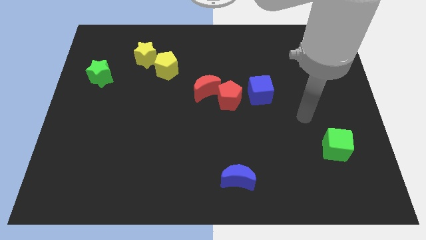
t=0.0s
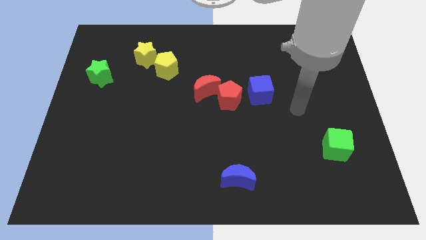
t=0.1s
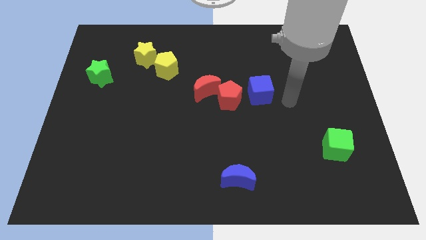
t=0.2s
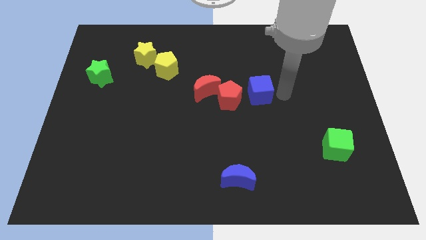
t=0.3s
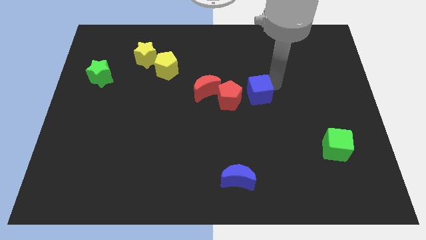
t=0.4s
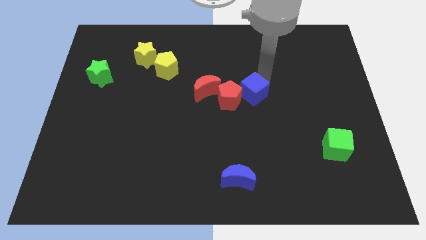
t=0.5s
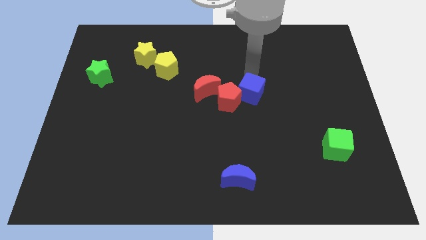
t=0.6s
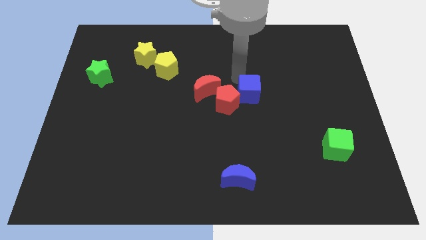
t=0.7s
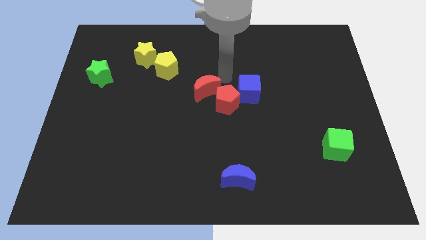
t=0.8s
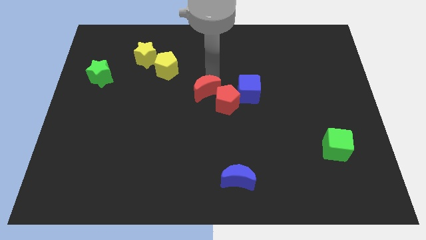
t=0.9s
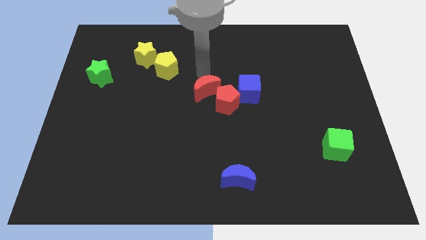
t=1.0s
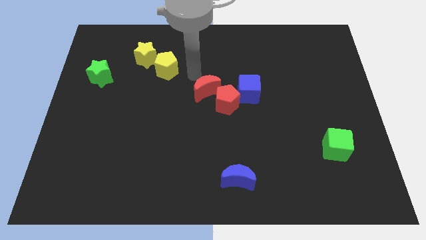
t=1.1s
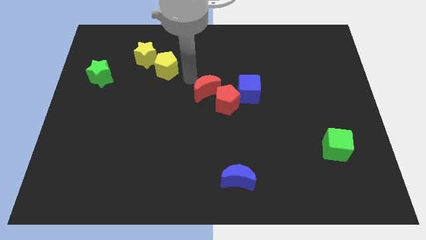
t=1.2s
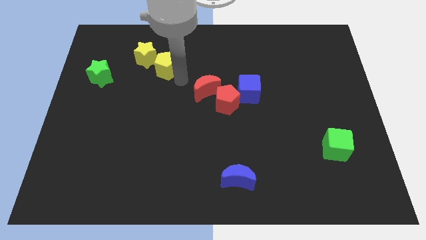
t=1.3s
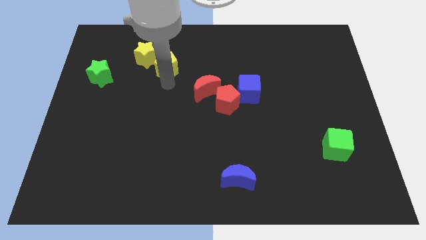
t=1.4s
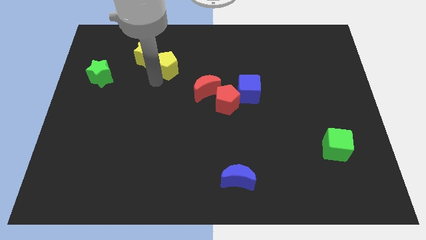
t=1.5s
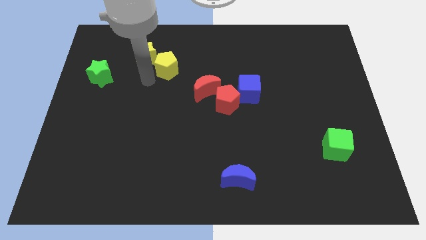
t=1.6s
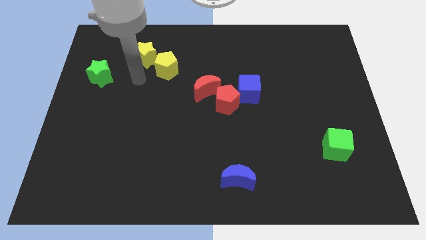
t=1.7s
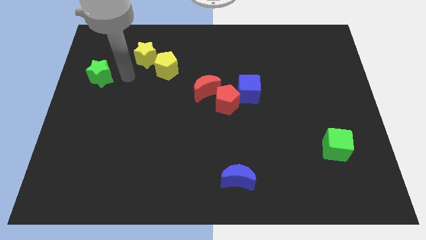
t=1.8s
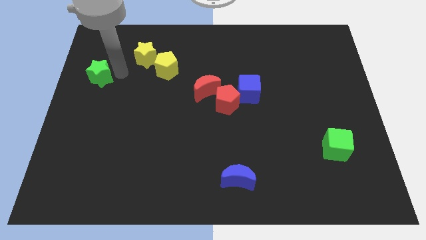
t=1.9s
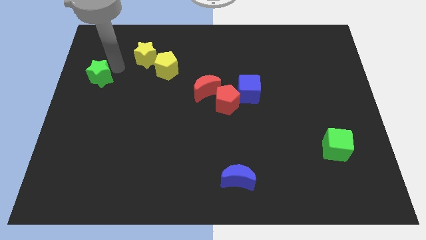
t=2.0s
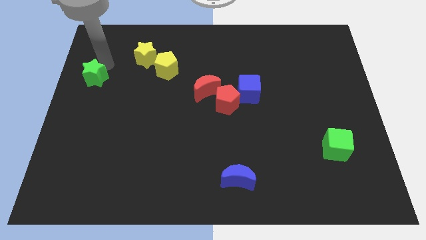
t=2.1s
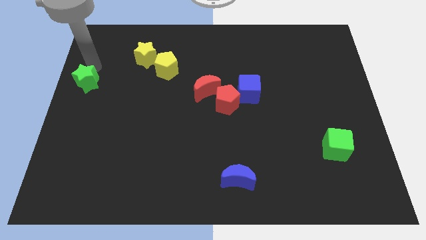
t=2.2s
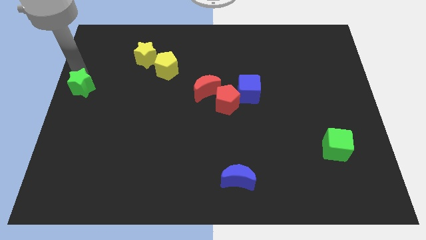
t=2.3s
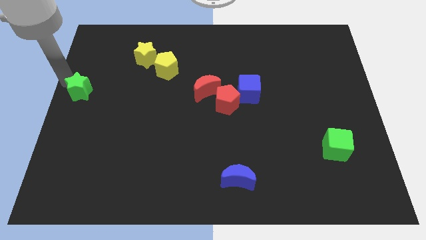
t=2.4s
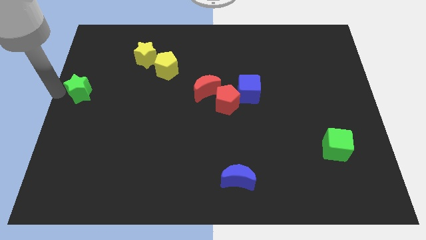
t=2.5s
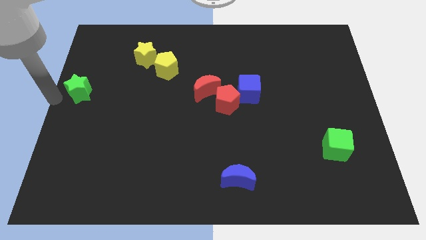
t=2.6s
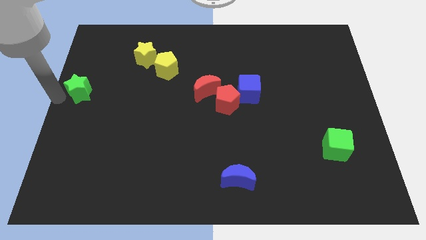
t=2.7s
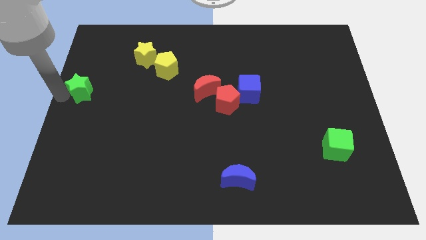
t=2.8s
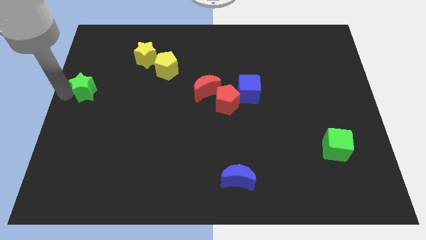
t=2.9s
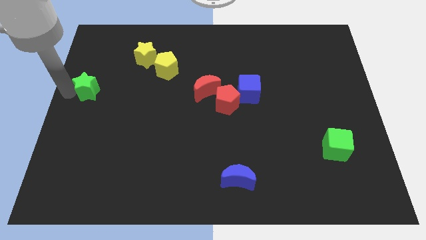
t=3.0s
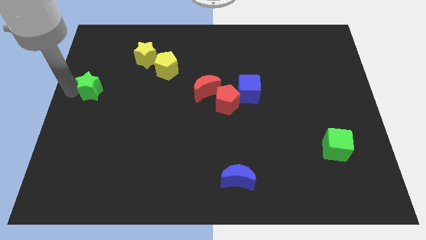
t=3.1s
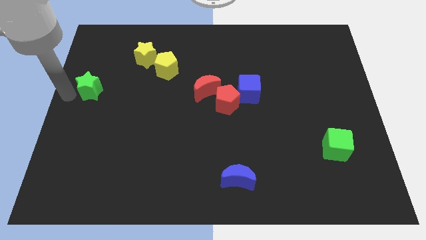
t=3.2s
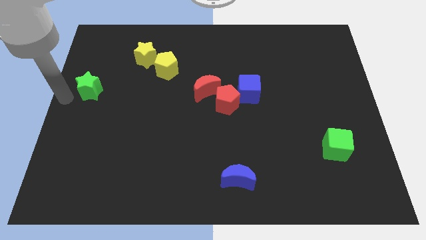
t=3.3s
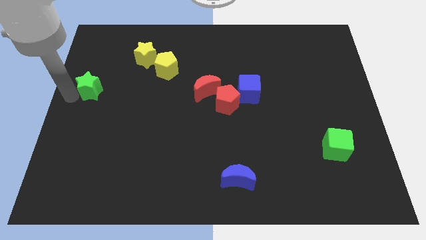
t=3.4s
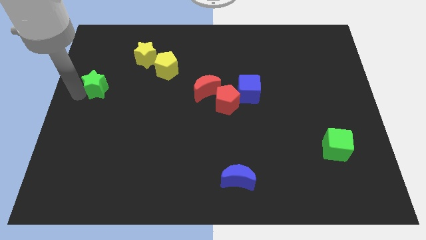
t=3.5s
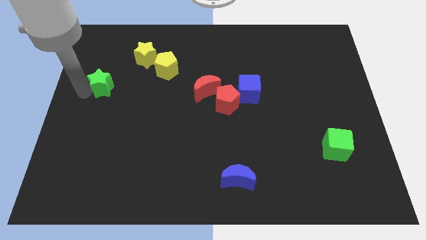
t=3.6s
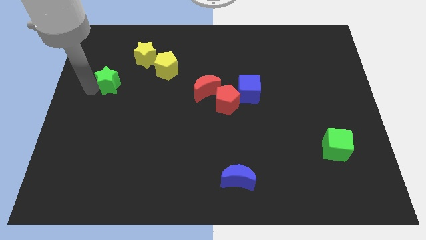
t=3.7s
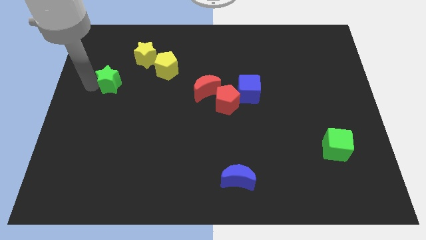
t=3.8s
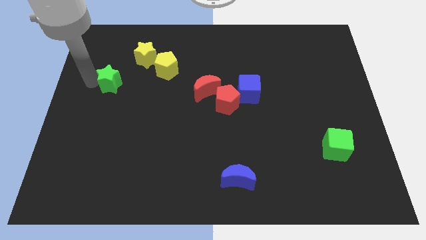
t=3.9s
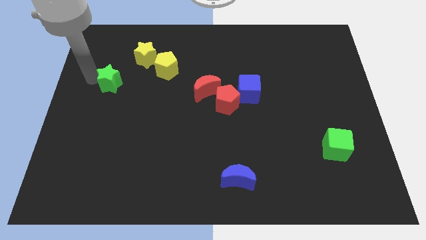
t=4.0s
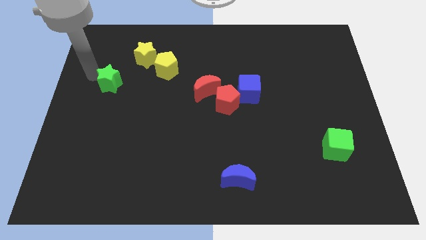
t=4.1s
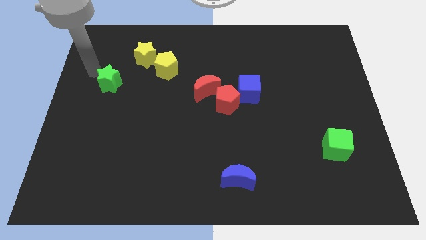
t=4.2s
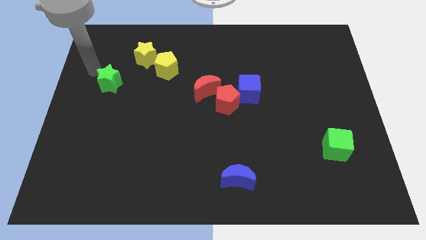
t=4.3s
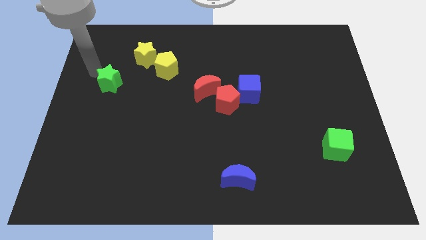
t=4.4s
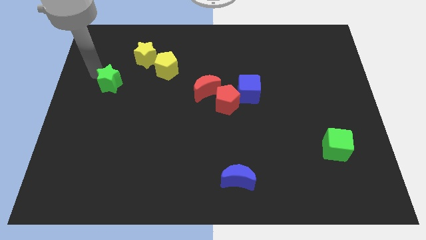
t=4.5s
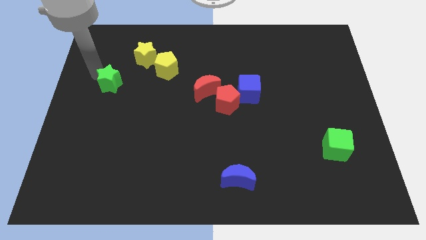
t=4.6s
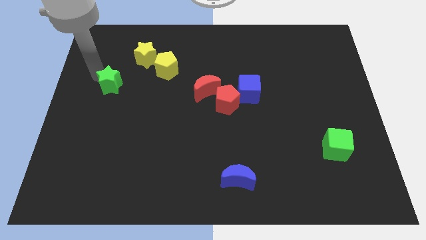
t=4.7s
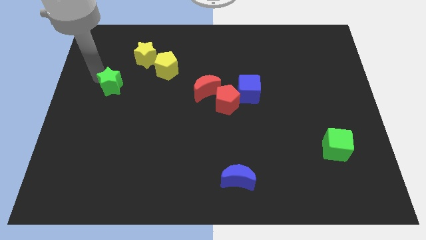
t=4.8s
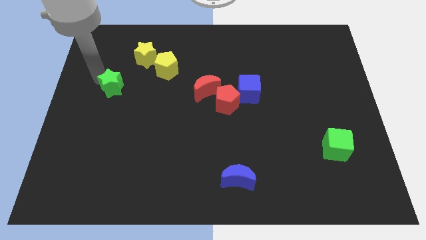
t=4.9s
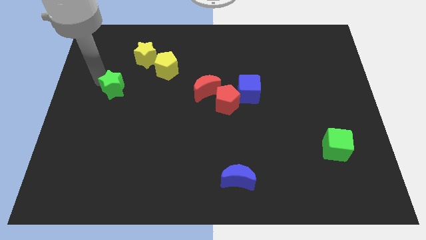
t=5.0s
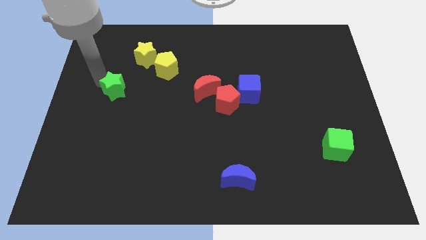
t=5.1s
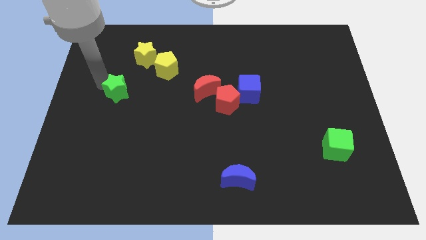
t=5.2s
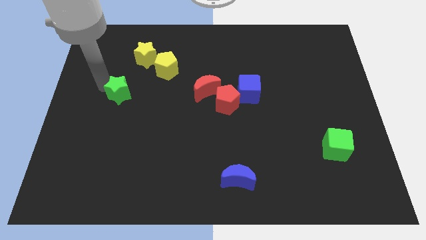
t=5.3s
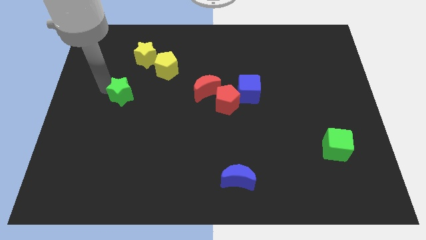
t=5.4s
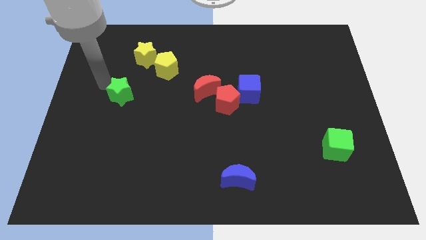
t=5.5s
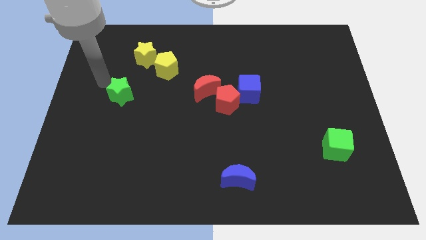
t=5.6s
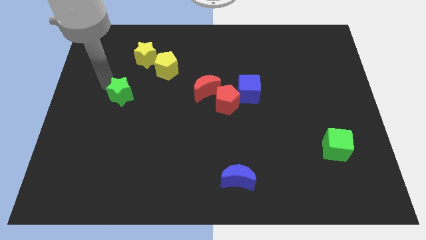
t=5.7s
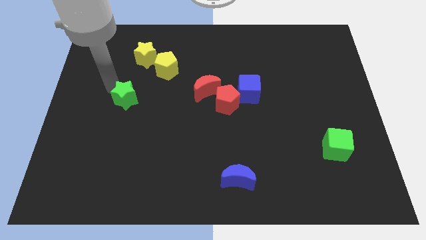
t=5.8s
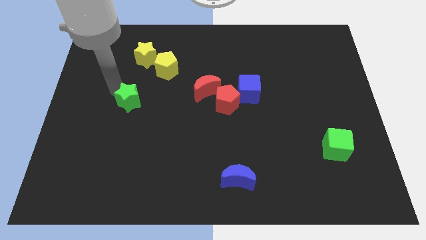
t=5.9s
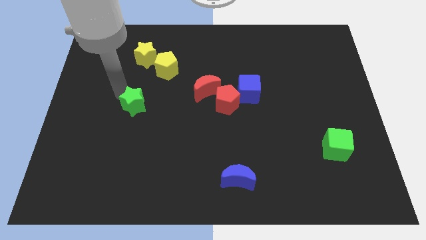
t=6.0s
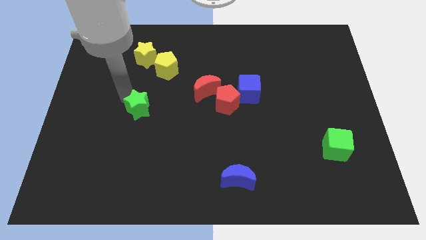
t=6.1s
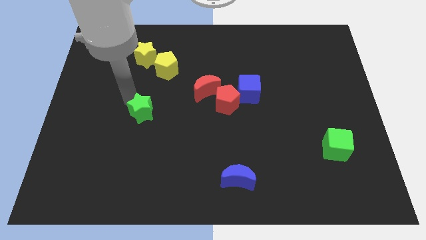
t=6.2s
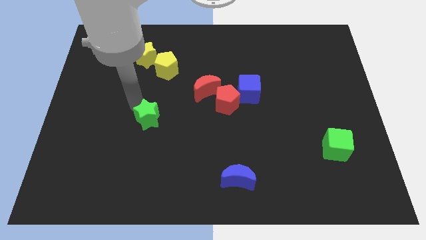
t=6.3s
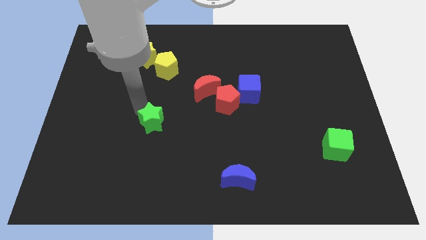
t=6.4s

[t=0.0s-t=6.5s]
move the green star down and right diagonally

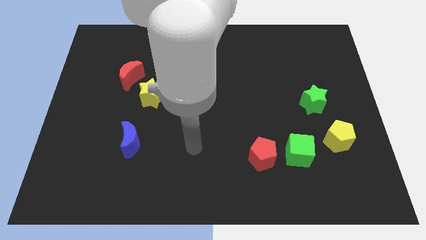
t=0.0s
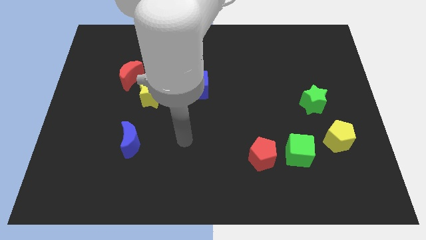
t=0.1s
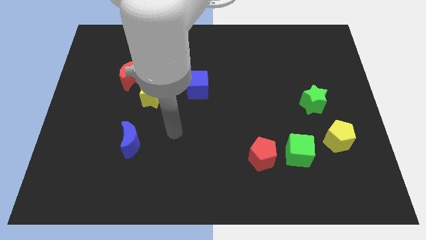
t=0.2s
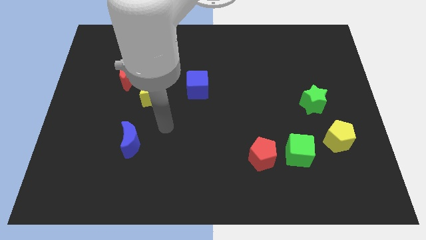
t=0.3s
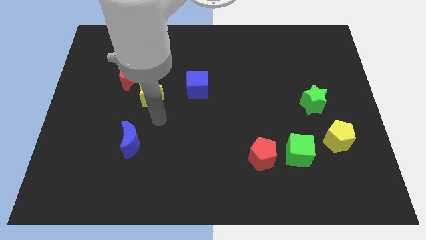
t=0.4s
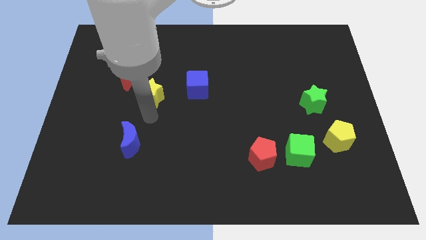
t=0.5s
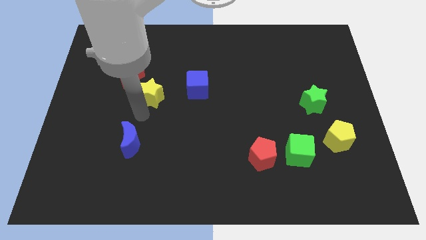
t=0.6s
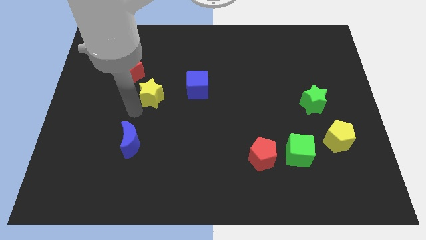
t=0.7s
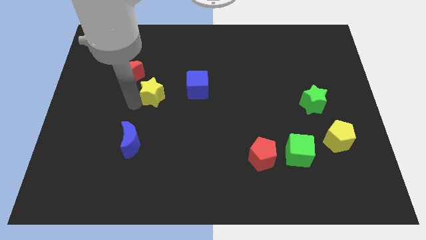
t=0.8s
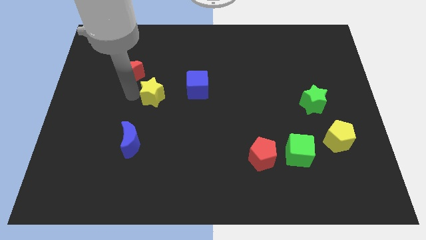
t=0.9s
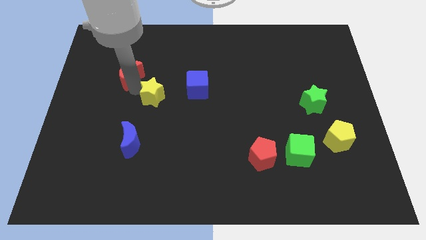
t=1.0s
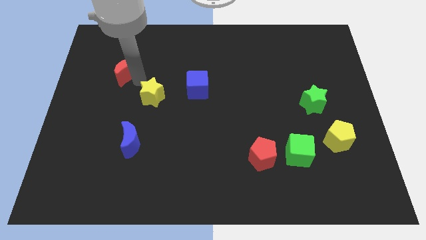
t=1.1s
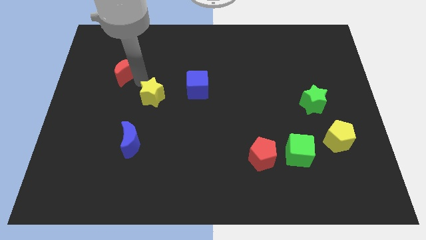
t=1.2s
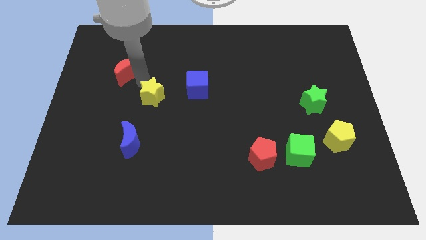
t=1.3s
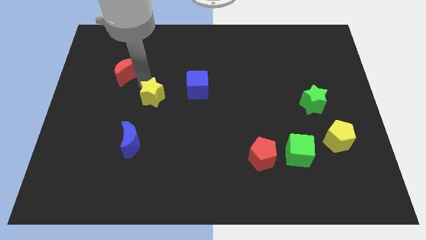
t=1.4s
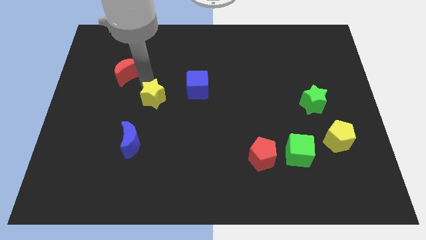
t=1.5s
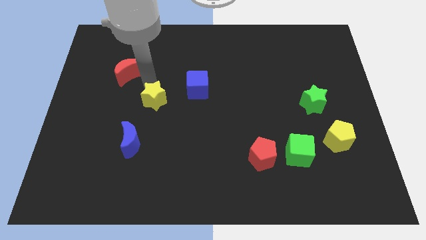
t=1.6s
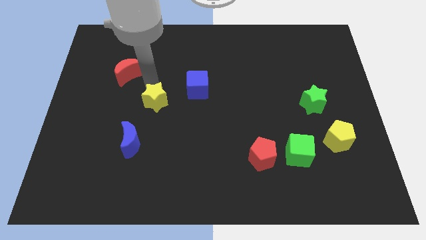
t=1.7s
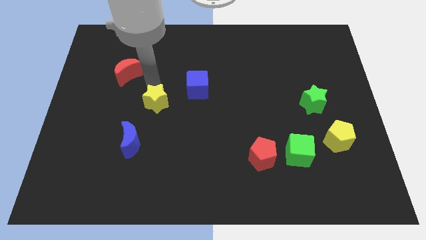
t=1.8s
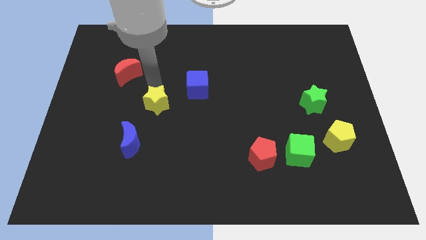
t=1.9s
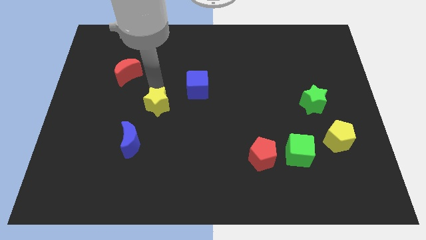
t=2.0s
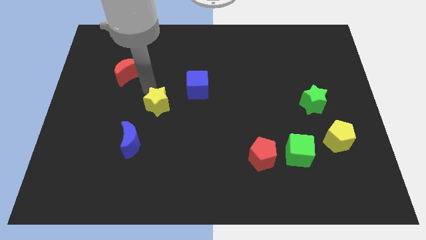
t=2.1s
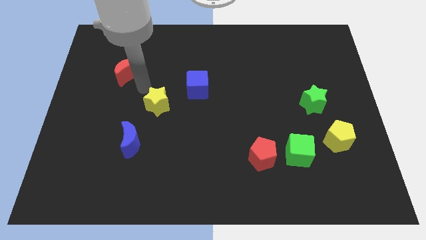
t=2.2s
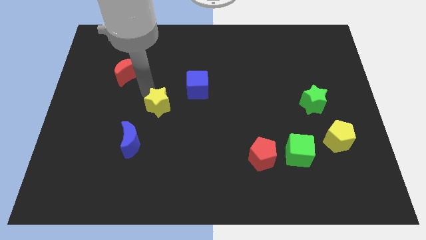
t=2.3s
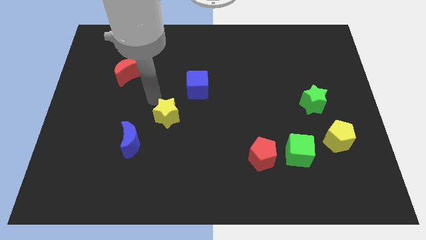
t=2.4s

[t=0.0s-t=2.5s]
move the yellow star a little diagonally downwards and right
